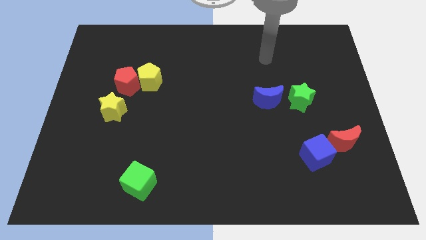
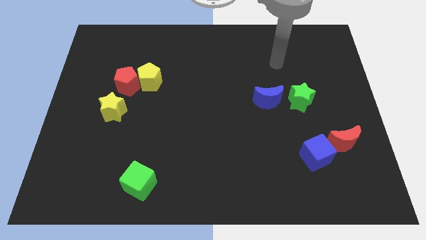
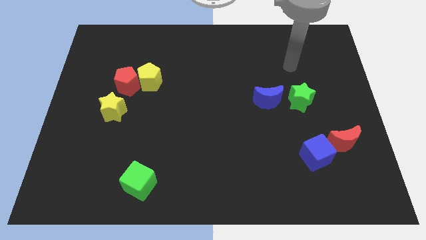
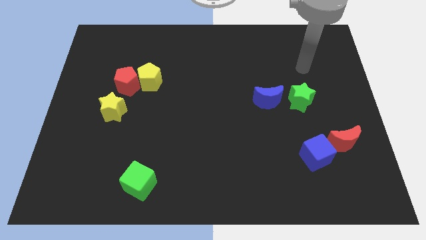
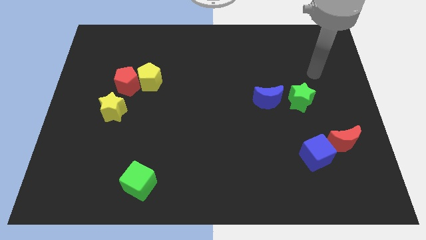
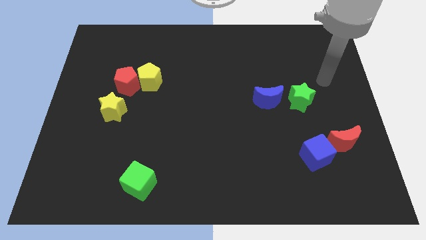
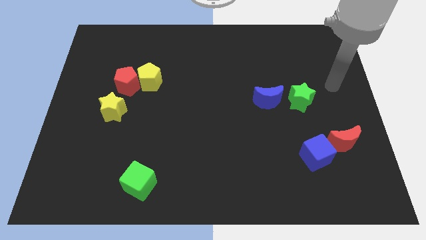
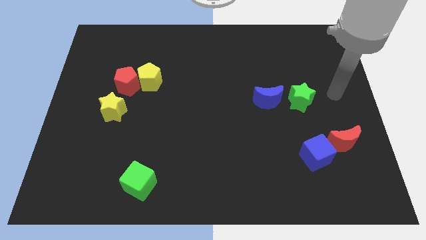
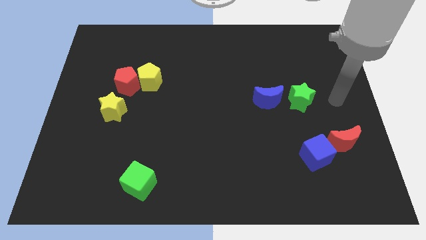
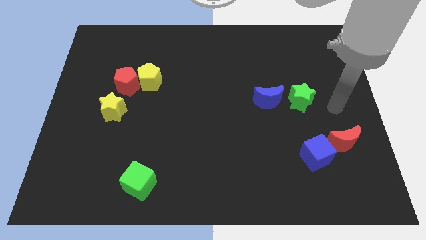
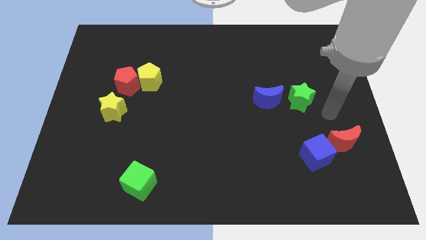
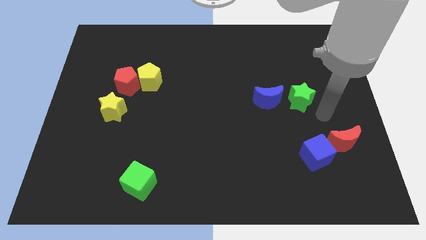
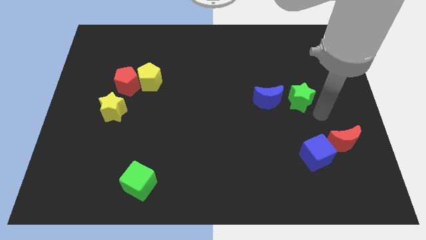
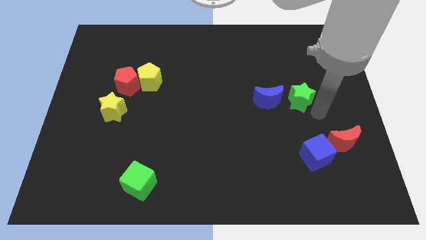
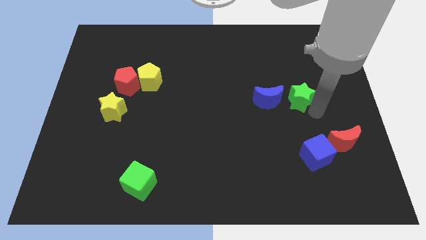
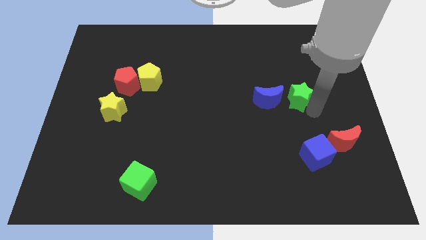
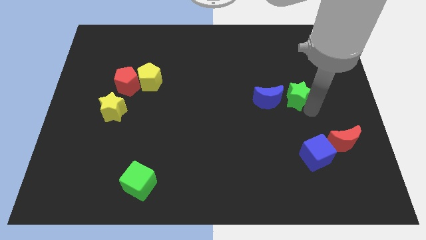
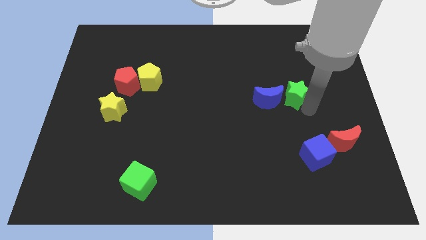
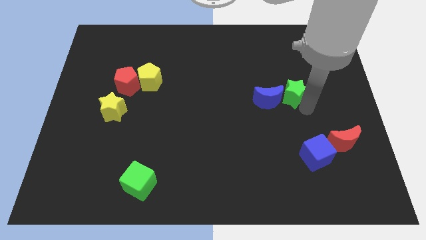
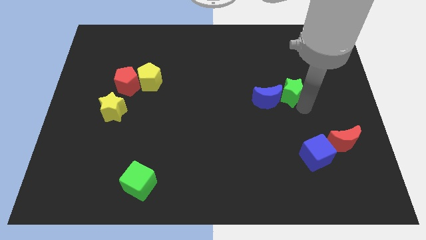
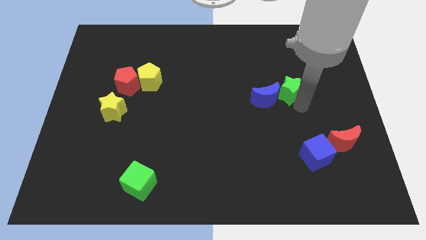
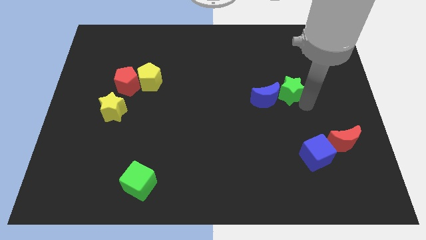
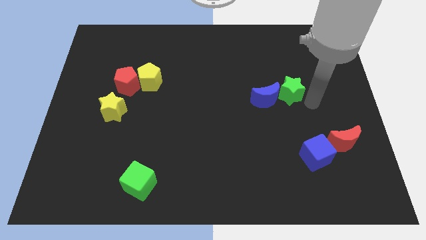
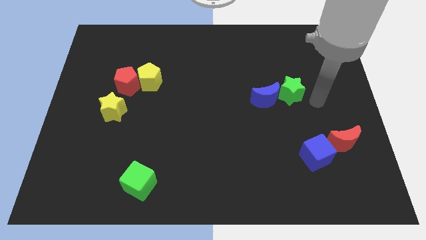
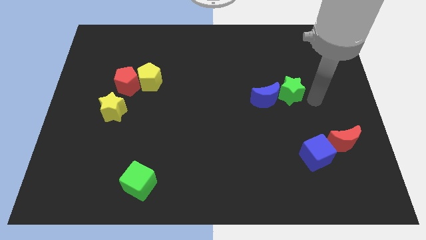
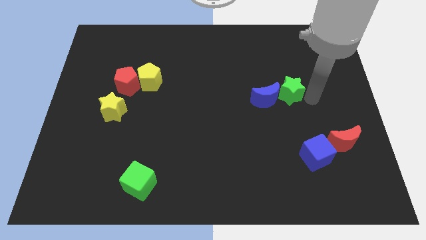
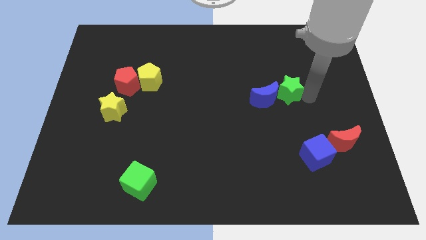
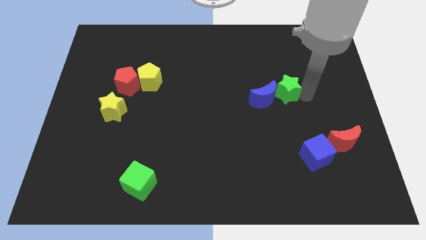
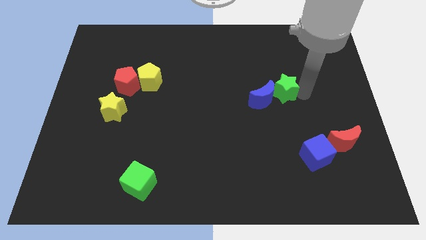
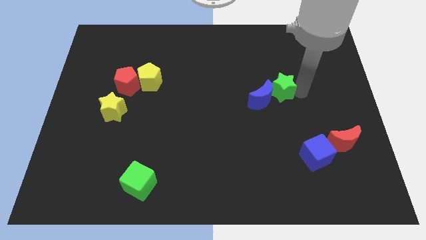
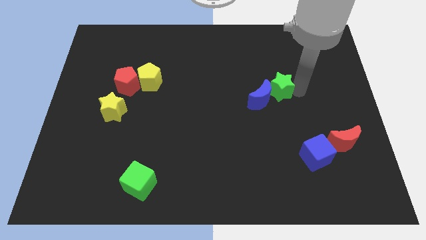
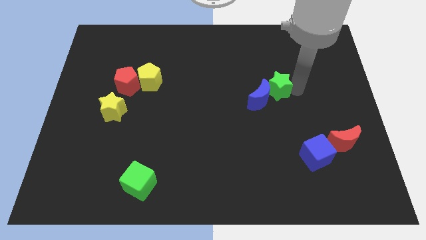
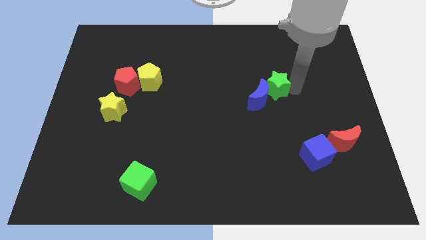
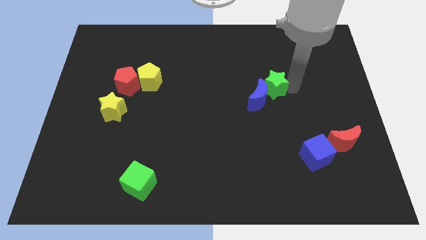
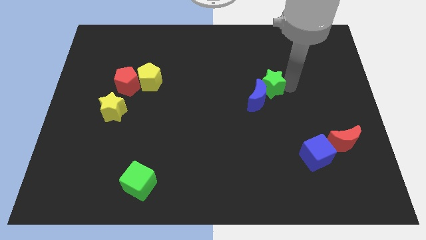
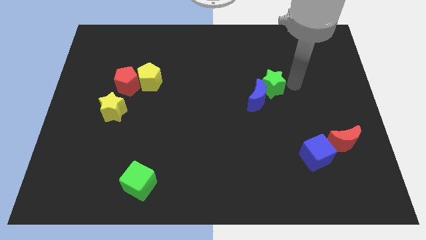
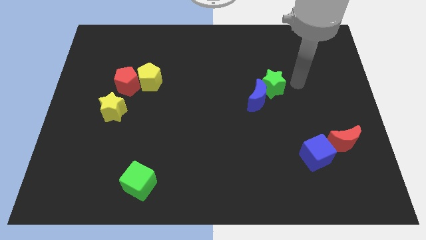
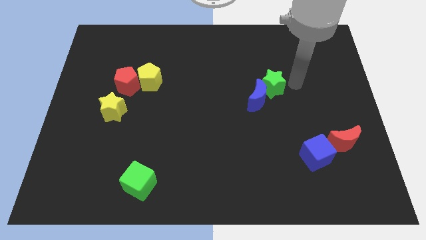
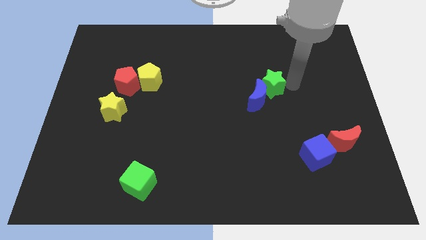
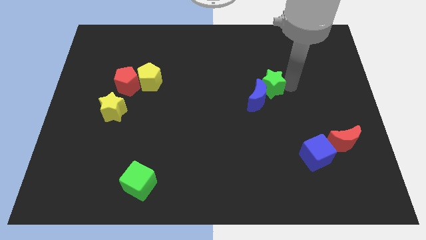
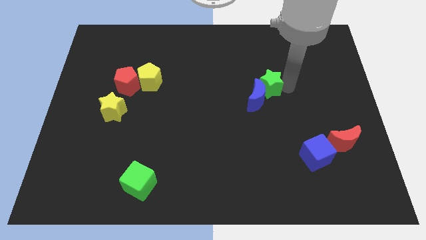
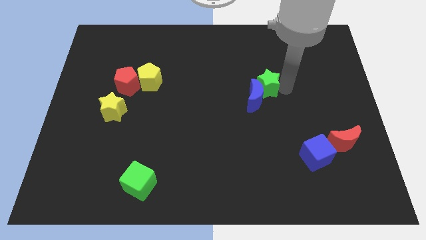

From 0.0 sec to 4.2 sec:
slightly move the green star left

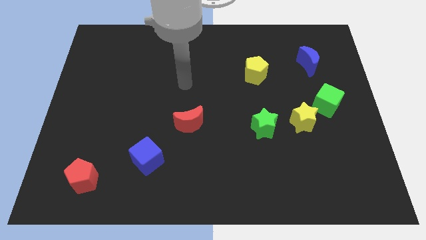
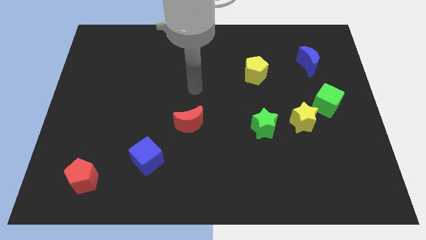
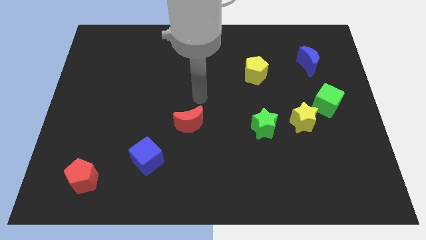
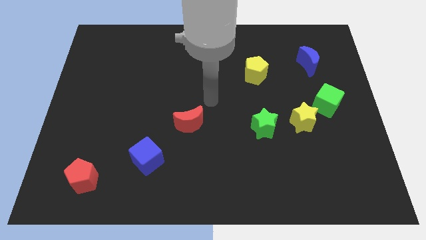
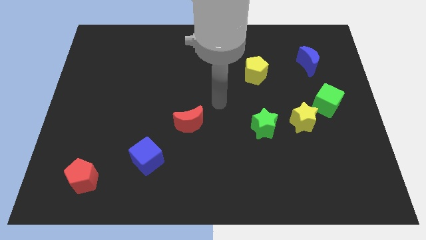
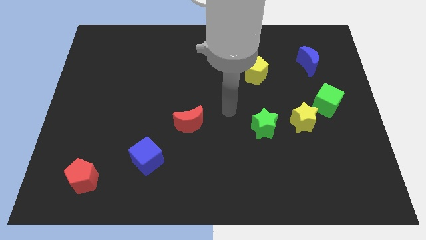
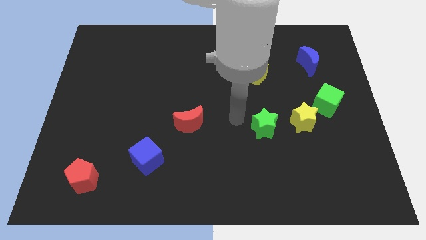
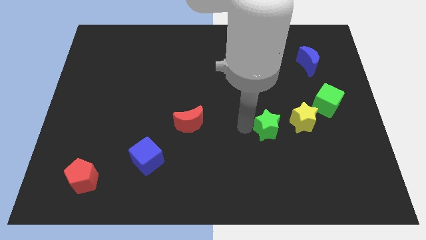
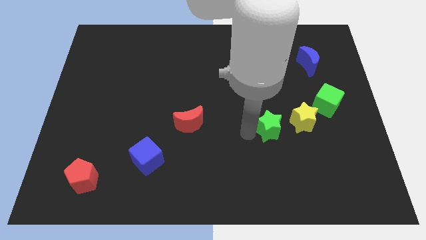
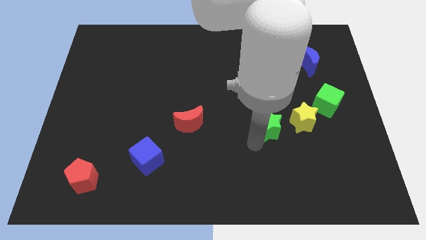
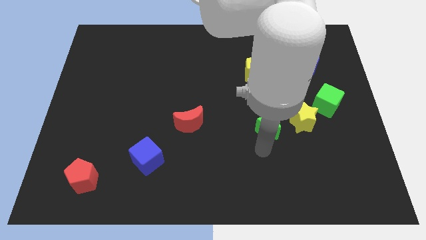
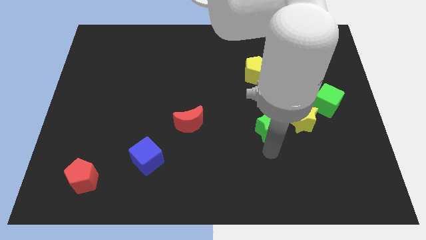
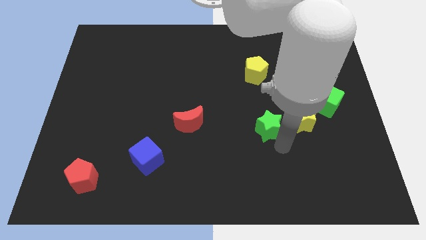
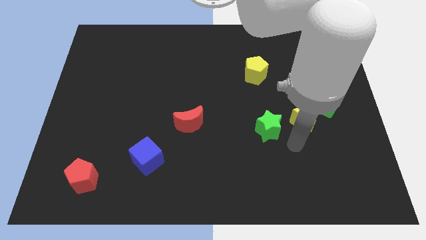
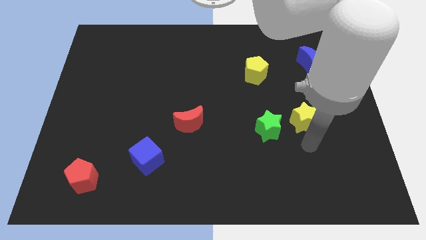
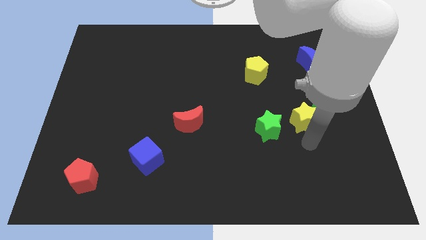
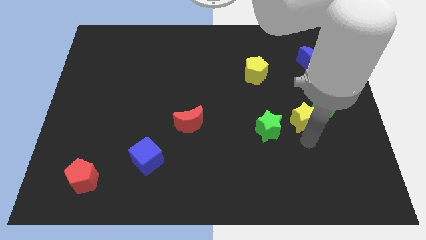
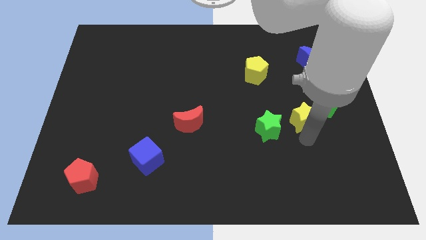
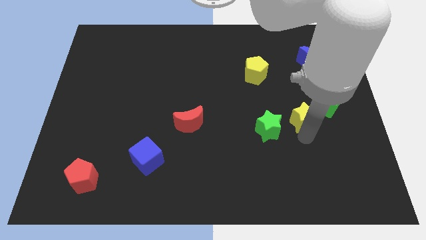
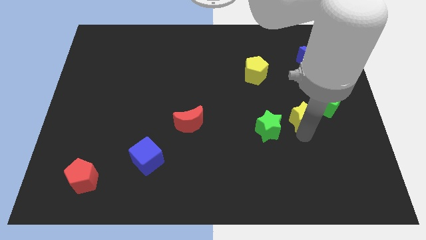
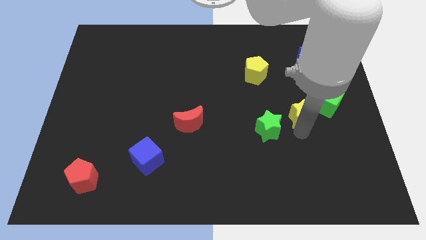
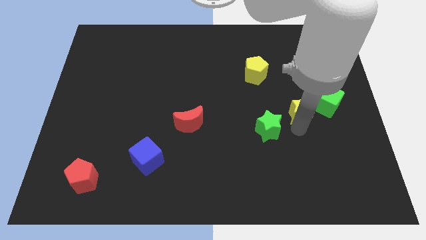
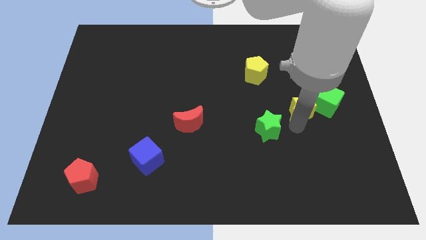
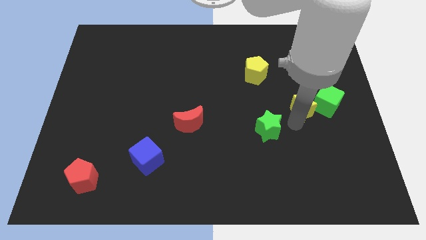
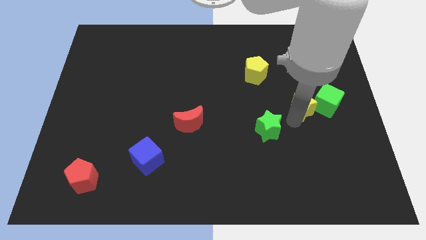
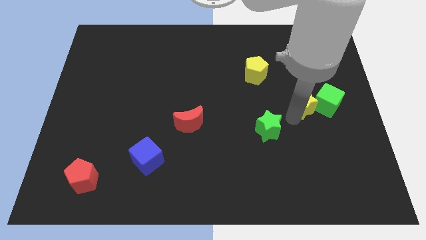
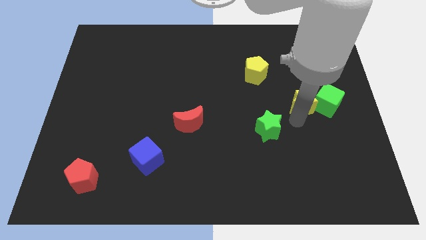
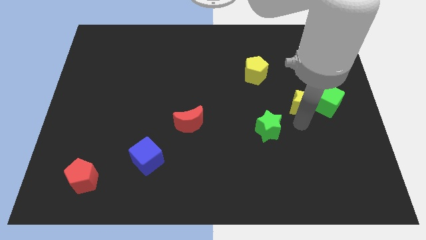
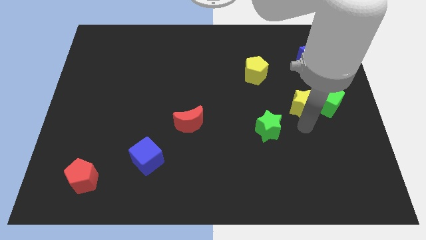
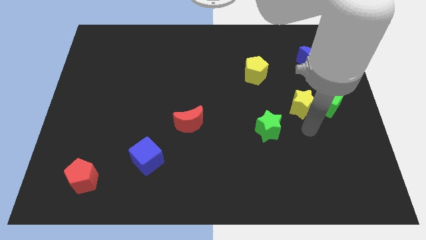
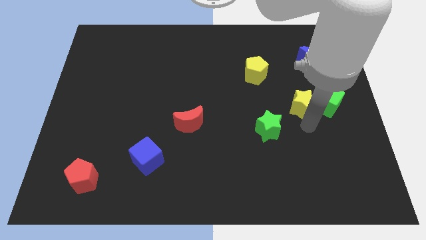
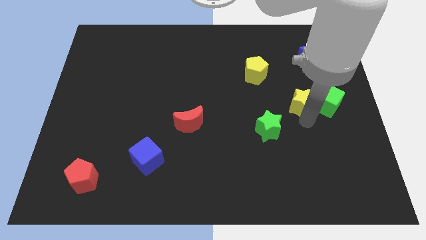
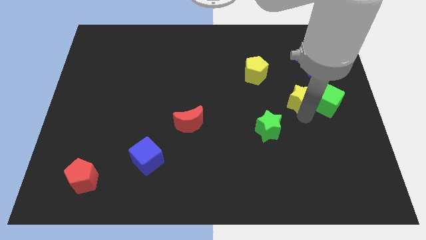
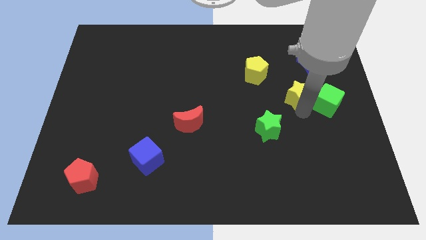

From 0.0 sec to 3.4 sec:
slide the yellow star upwards a little bit

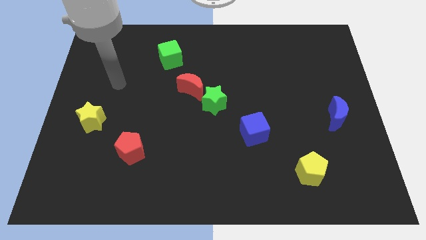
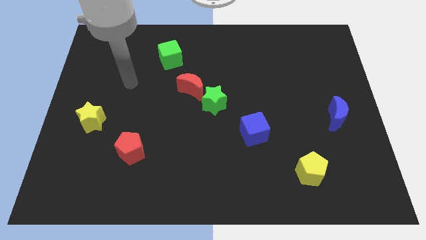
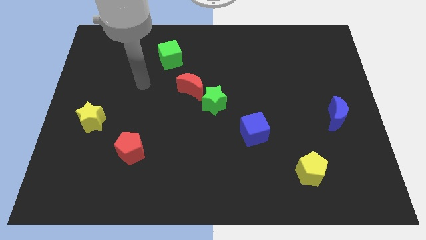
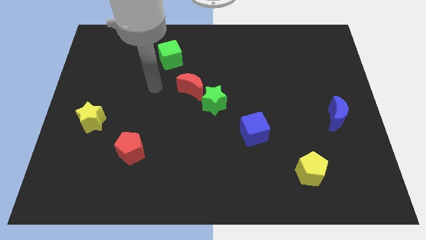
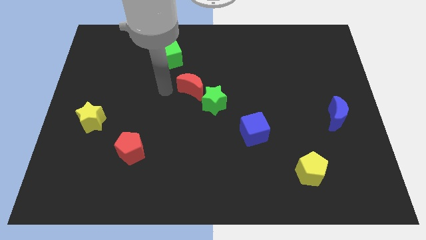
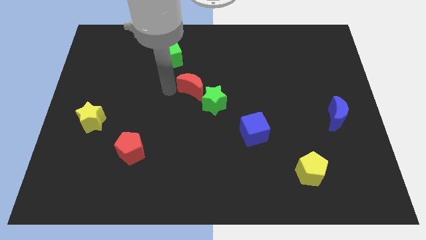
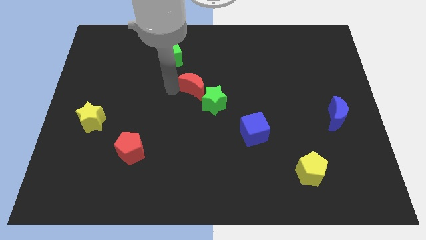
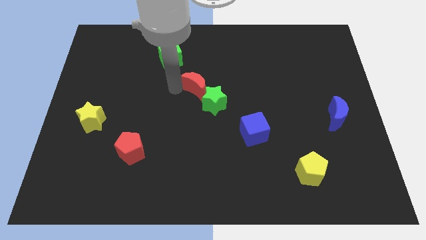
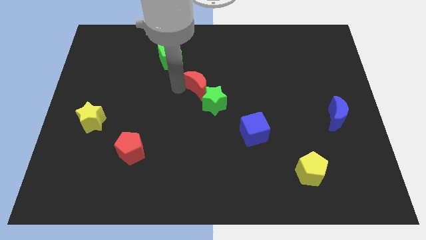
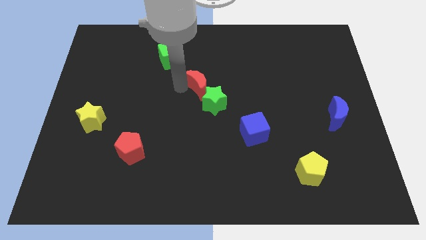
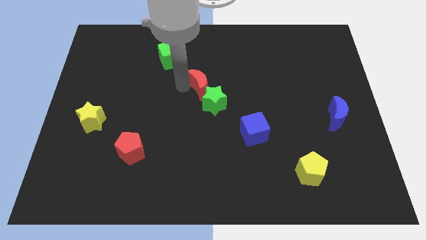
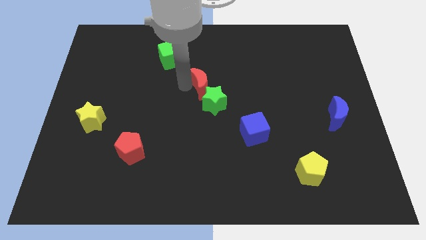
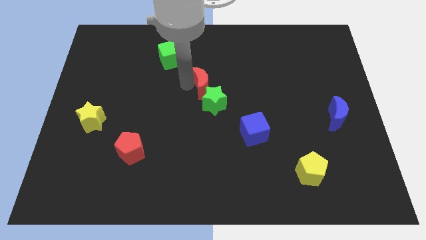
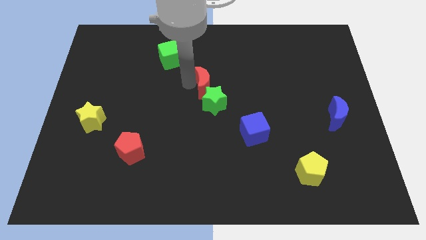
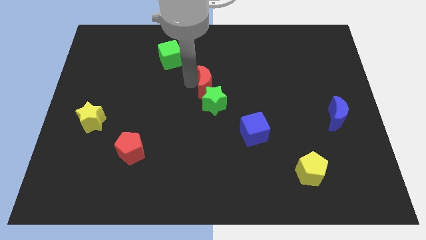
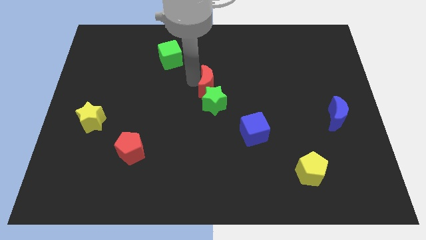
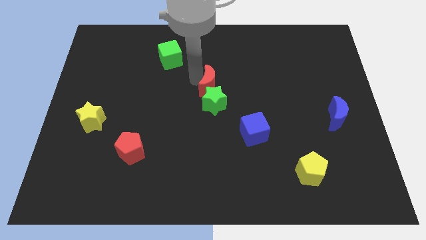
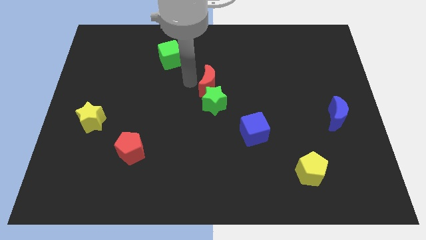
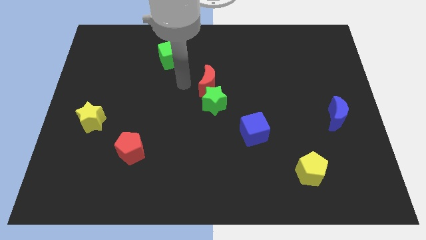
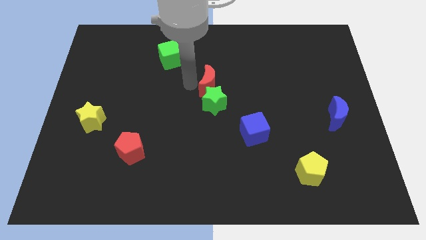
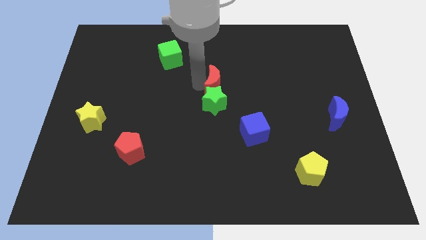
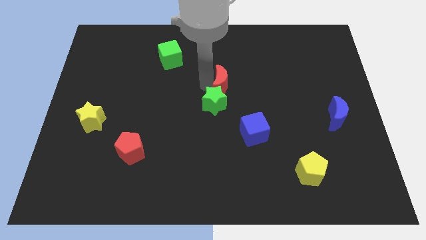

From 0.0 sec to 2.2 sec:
move the red moon a little bit to the right
